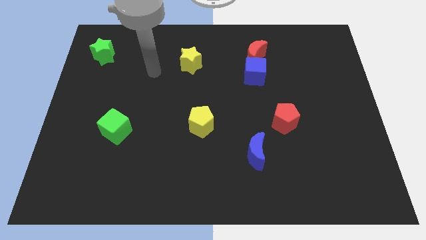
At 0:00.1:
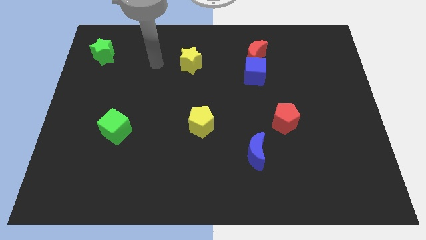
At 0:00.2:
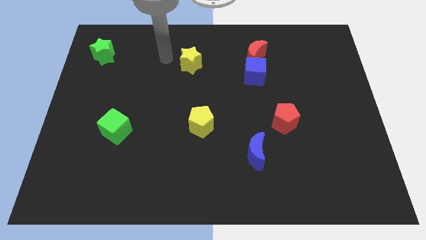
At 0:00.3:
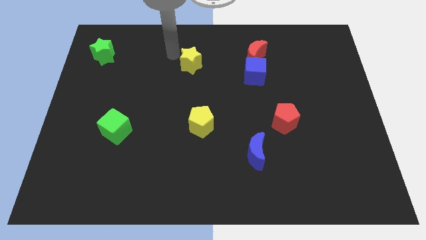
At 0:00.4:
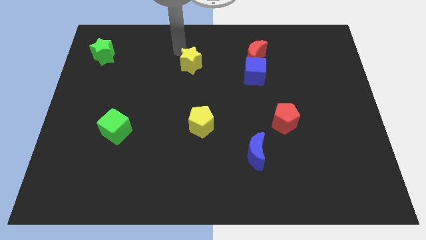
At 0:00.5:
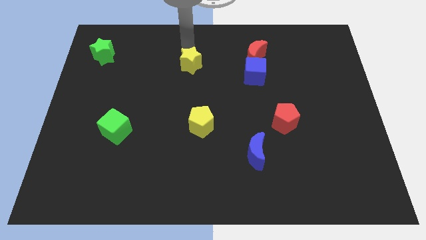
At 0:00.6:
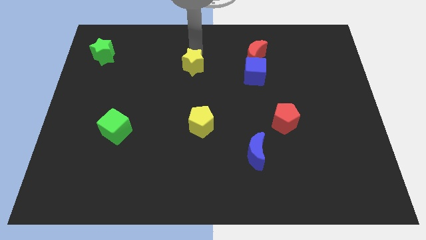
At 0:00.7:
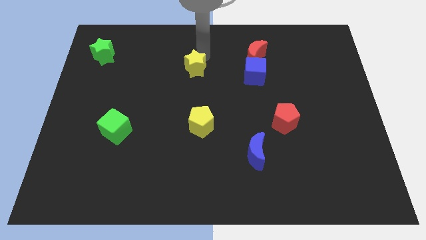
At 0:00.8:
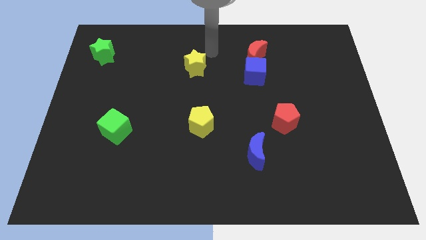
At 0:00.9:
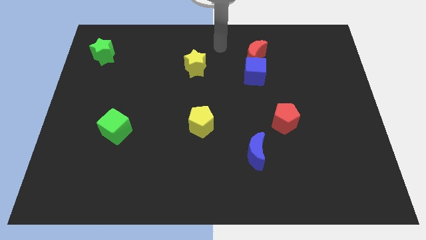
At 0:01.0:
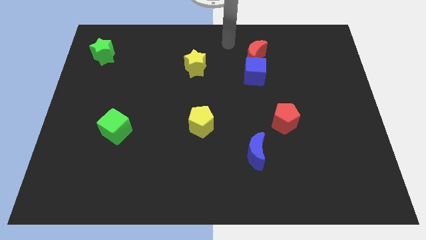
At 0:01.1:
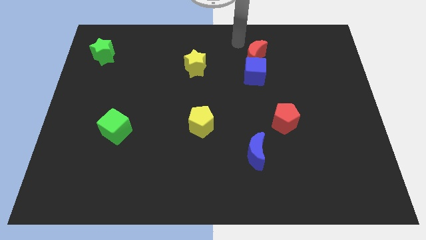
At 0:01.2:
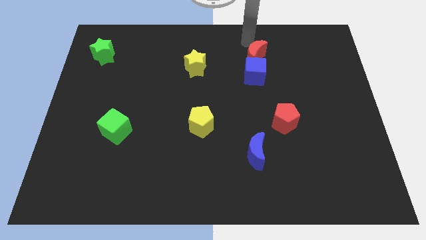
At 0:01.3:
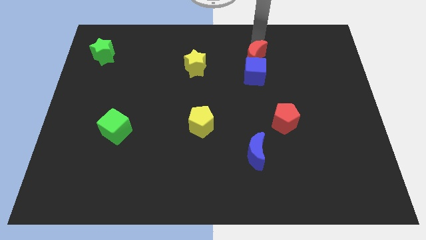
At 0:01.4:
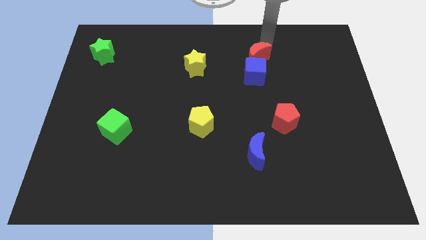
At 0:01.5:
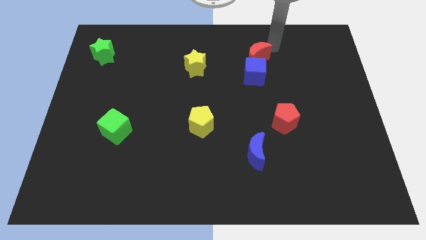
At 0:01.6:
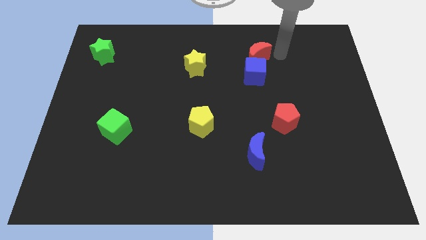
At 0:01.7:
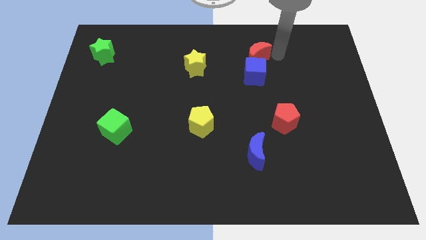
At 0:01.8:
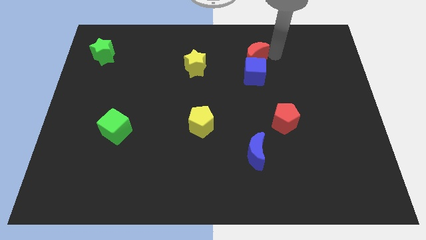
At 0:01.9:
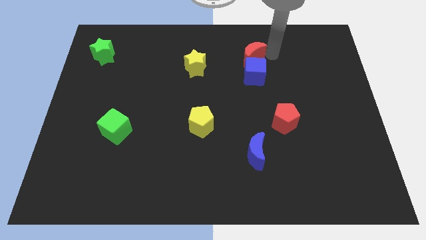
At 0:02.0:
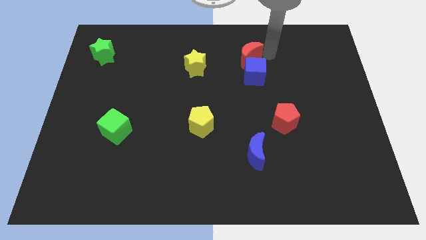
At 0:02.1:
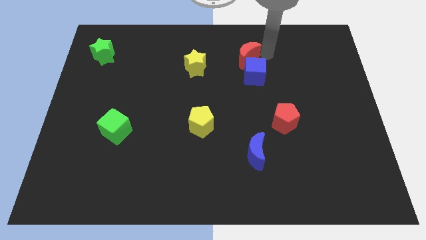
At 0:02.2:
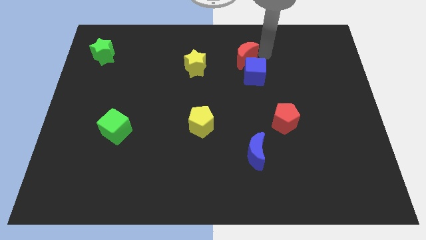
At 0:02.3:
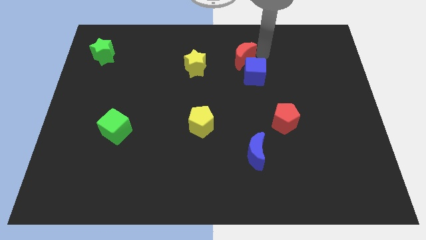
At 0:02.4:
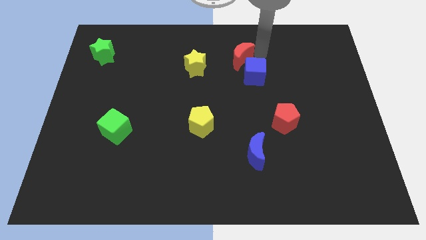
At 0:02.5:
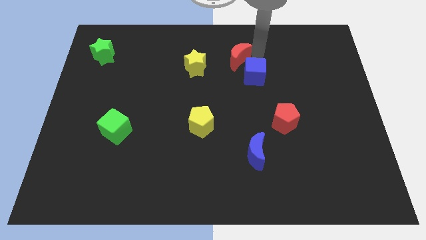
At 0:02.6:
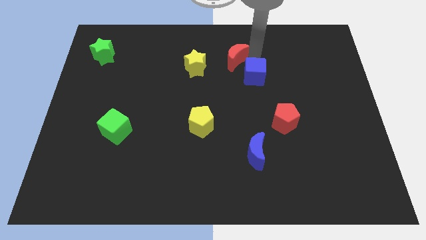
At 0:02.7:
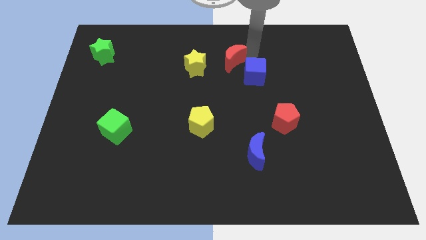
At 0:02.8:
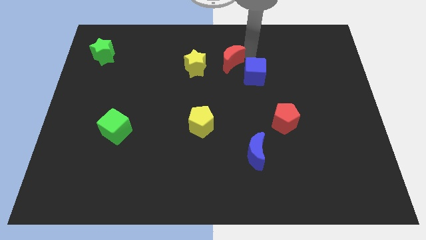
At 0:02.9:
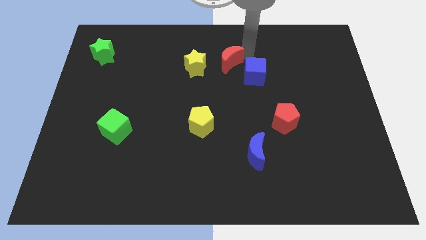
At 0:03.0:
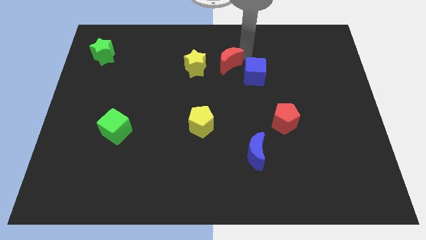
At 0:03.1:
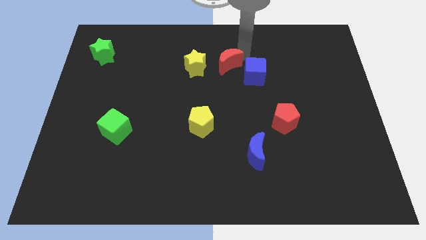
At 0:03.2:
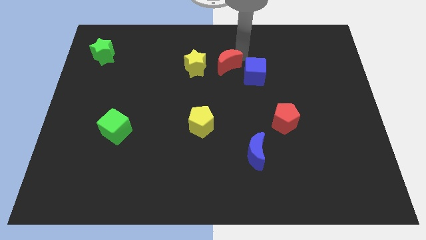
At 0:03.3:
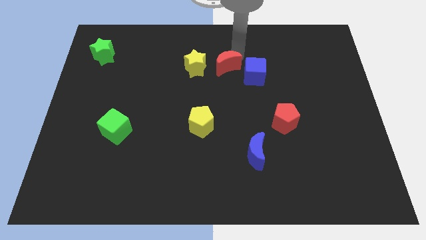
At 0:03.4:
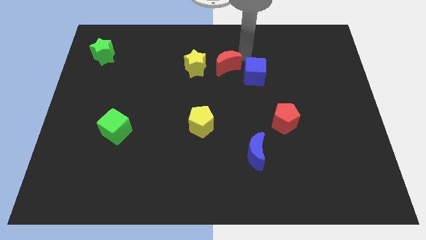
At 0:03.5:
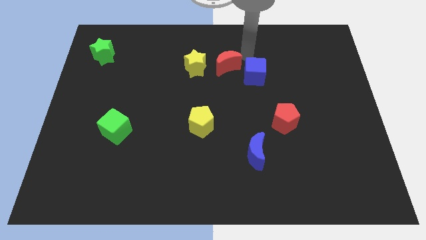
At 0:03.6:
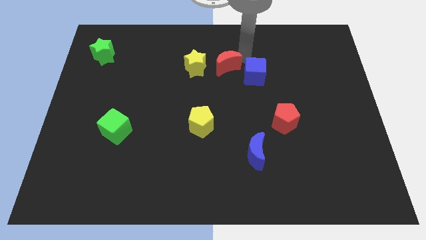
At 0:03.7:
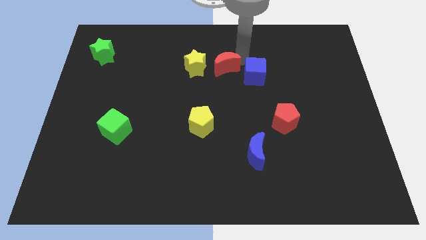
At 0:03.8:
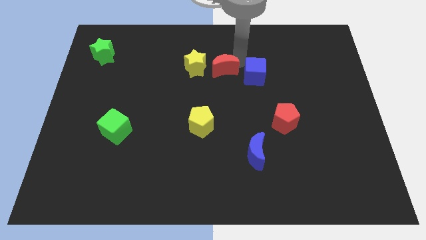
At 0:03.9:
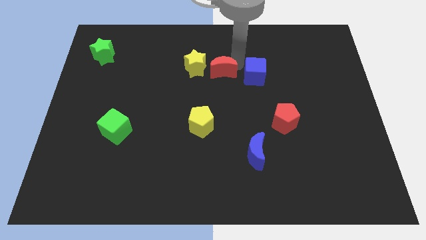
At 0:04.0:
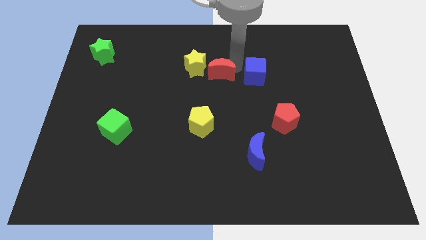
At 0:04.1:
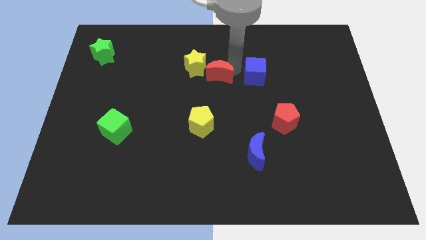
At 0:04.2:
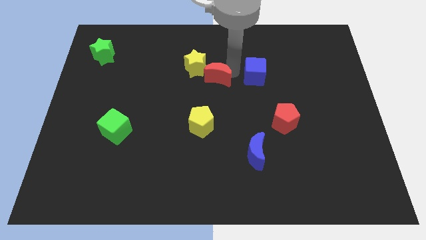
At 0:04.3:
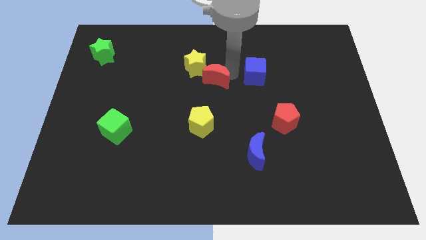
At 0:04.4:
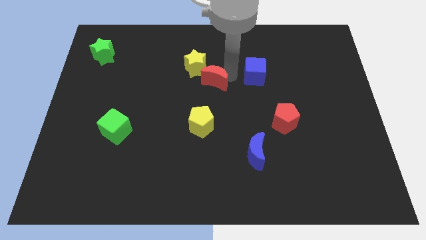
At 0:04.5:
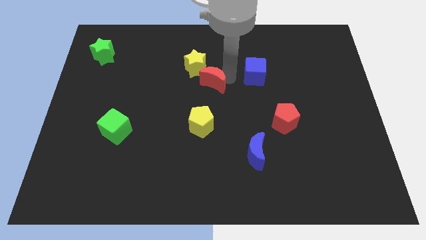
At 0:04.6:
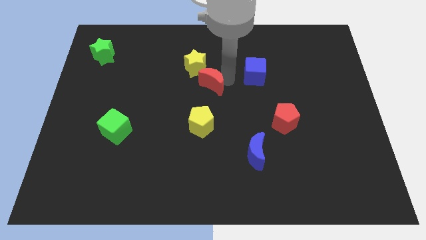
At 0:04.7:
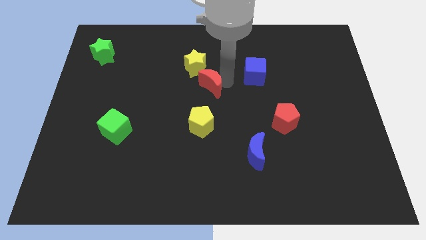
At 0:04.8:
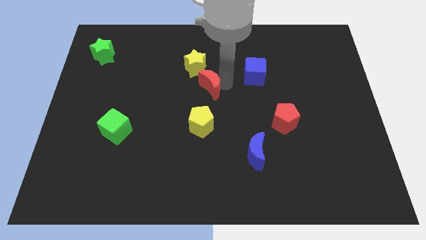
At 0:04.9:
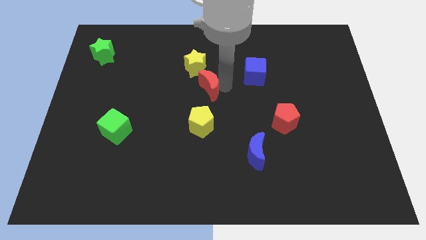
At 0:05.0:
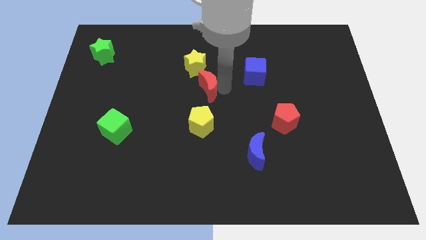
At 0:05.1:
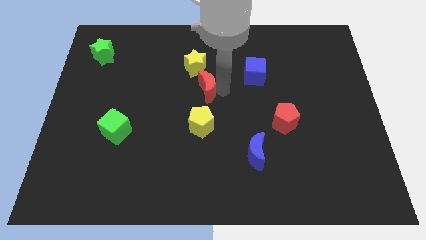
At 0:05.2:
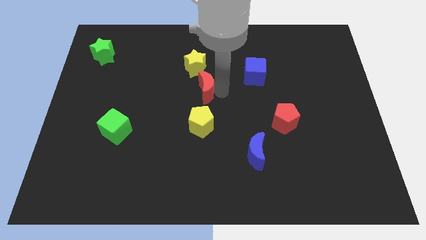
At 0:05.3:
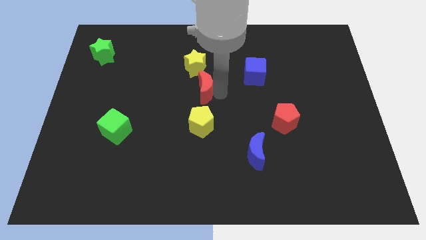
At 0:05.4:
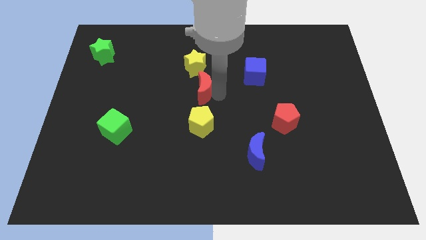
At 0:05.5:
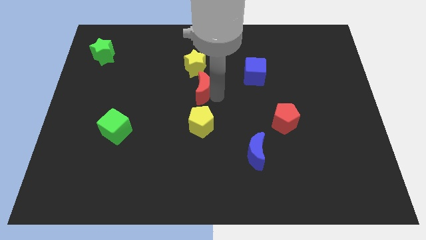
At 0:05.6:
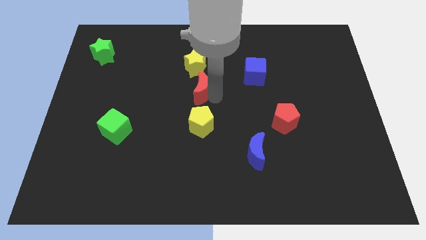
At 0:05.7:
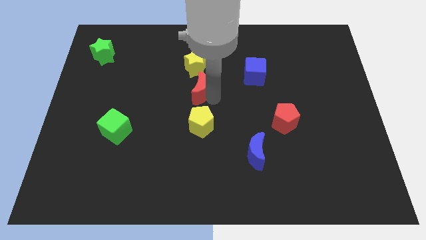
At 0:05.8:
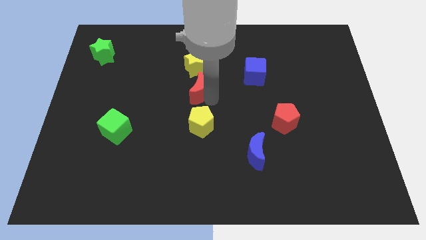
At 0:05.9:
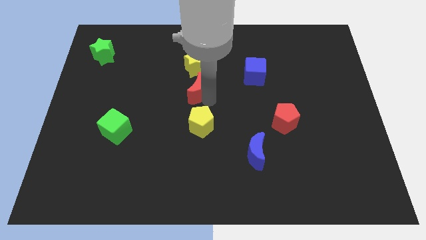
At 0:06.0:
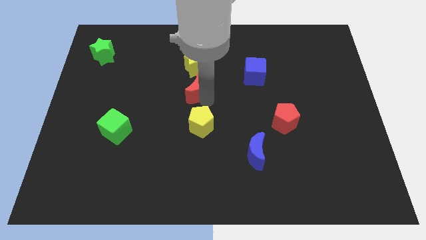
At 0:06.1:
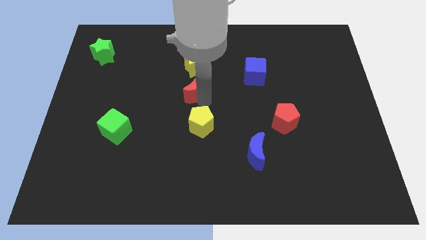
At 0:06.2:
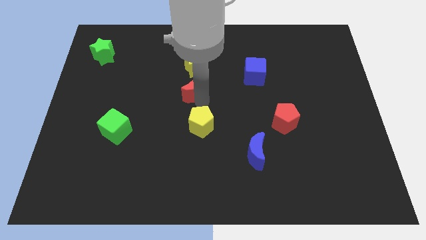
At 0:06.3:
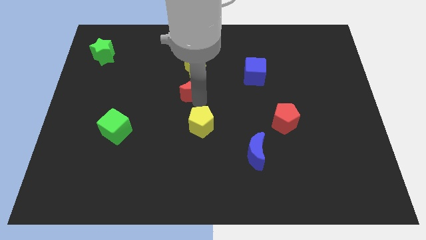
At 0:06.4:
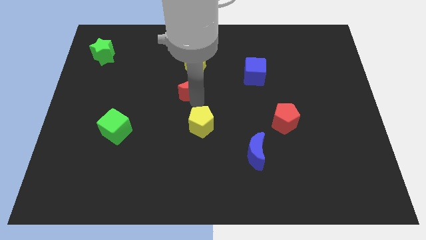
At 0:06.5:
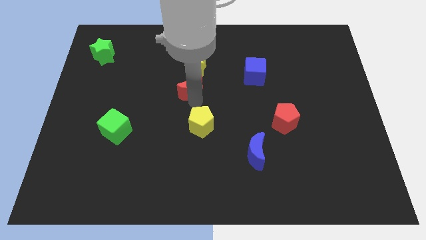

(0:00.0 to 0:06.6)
push the red moon diagonally down and left

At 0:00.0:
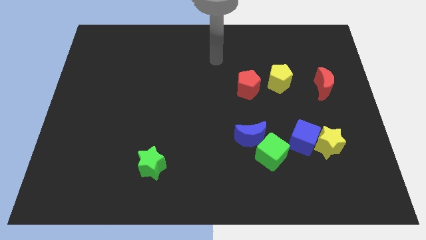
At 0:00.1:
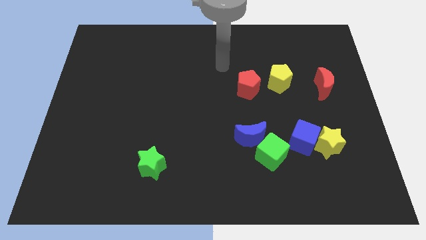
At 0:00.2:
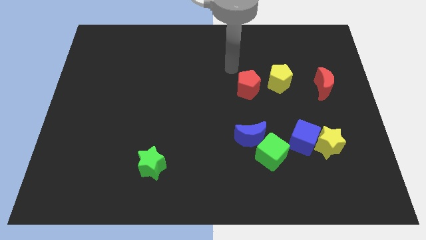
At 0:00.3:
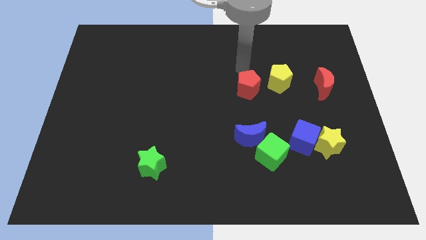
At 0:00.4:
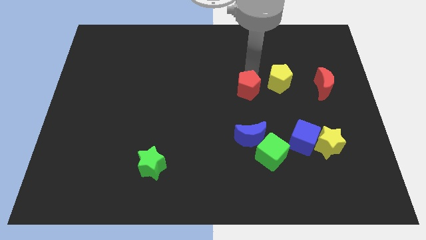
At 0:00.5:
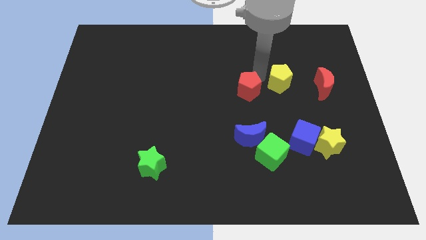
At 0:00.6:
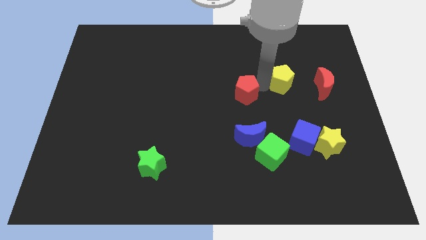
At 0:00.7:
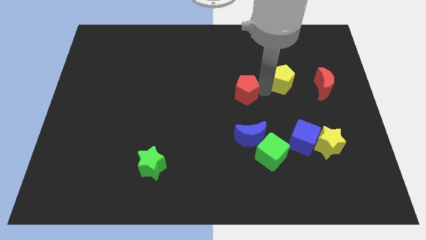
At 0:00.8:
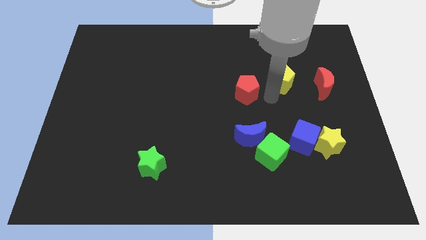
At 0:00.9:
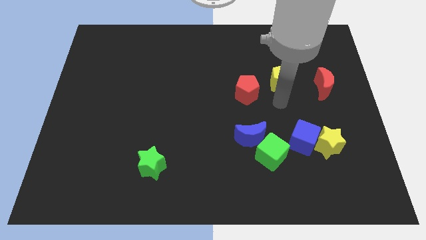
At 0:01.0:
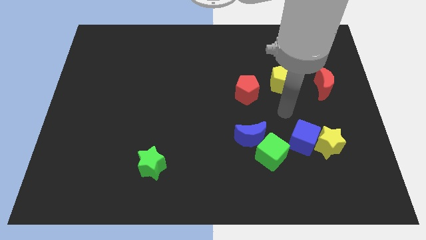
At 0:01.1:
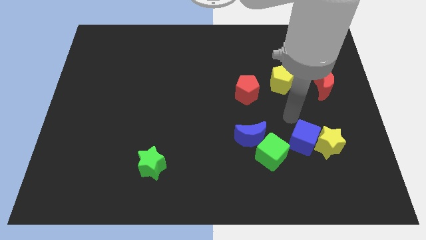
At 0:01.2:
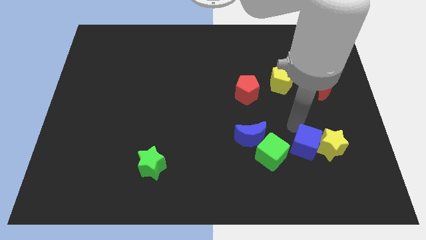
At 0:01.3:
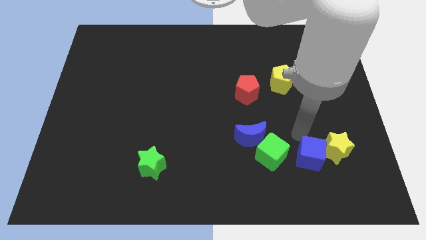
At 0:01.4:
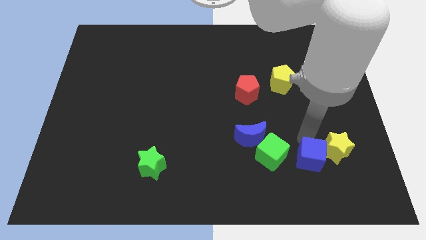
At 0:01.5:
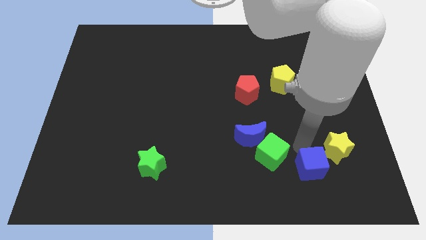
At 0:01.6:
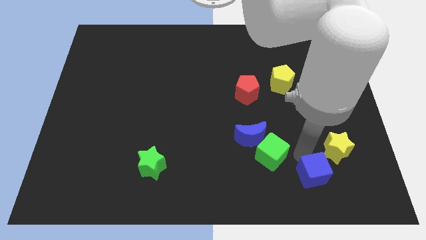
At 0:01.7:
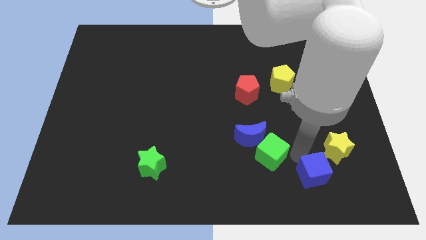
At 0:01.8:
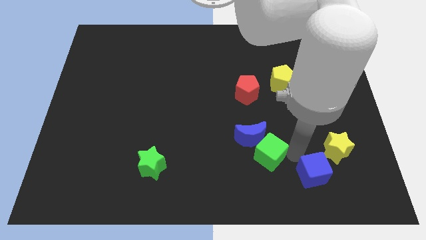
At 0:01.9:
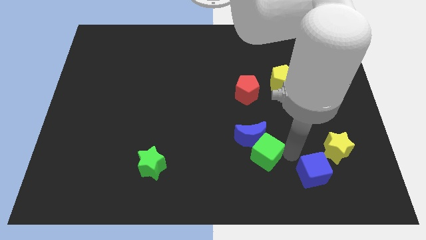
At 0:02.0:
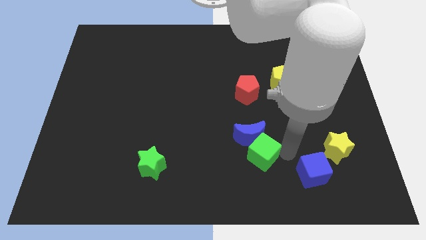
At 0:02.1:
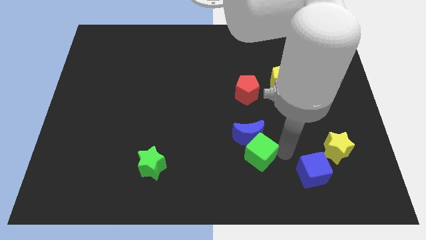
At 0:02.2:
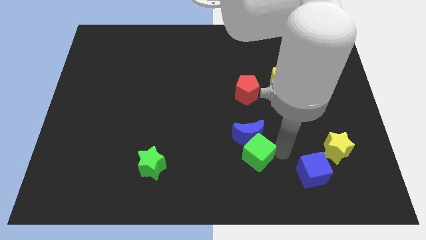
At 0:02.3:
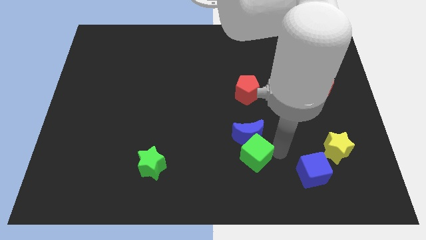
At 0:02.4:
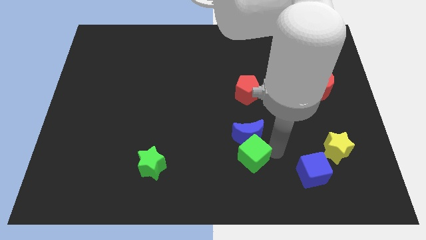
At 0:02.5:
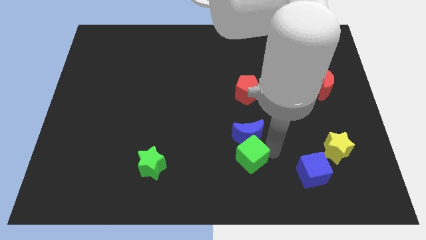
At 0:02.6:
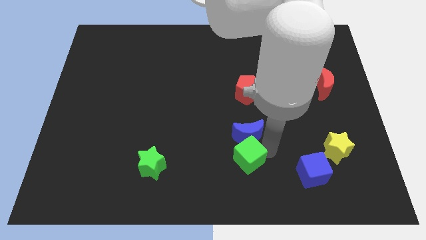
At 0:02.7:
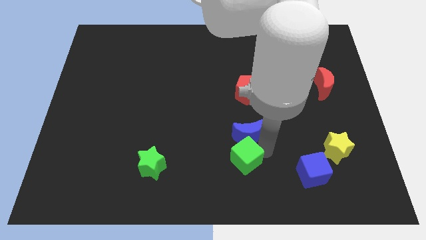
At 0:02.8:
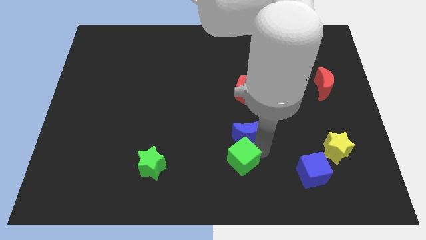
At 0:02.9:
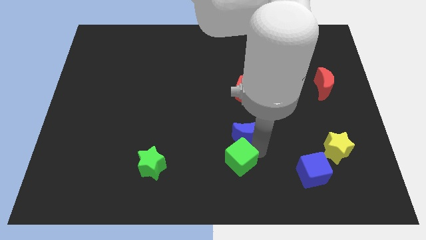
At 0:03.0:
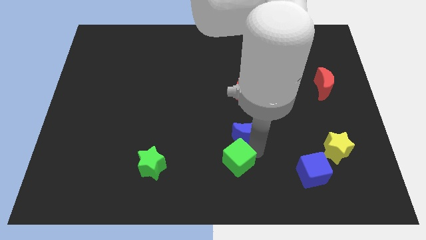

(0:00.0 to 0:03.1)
slide the green cube somewhat to the left
